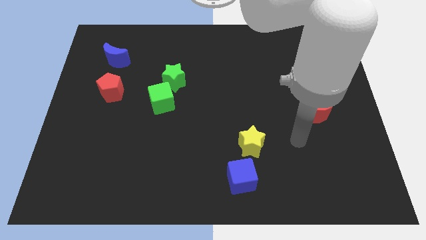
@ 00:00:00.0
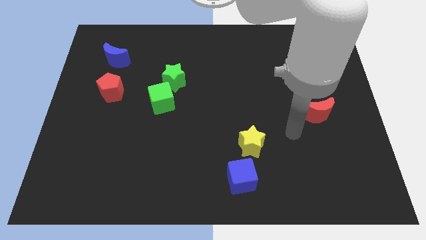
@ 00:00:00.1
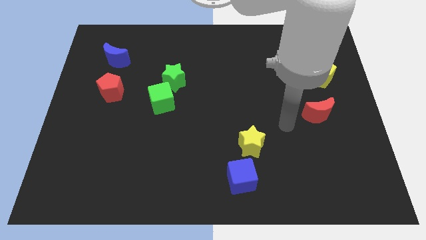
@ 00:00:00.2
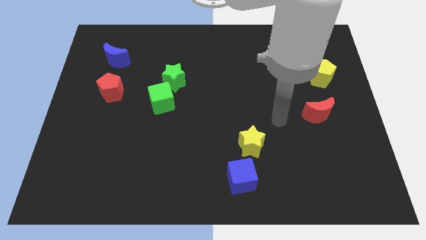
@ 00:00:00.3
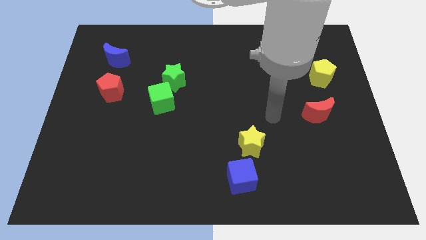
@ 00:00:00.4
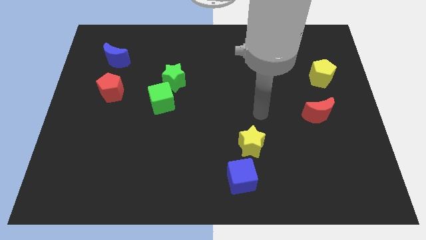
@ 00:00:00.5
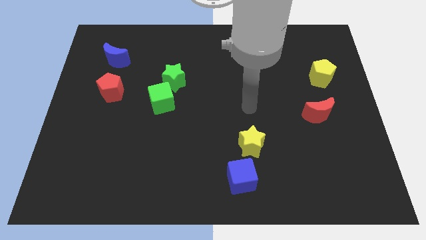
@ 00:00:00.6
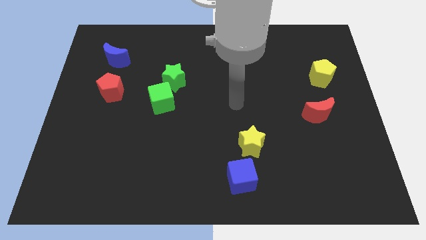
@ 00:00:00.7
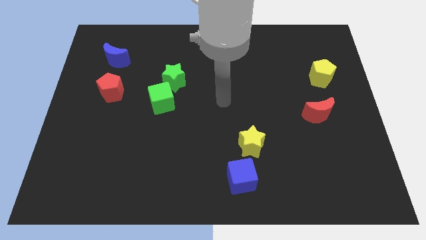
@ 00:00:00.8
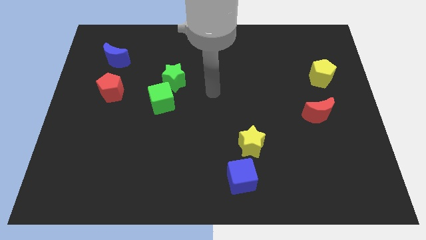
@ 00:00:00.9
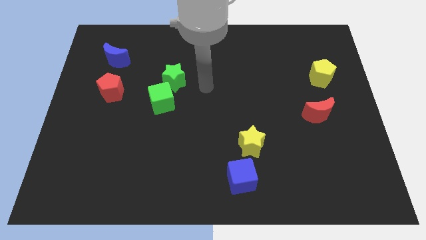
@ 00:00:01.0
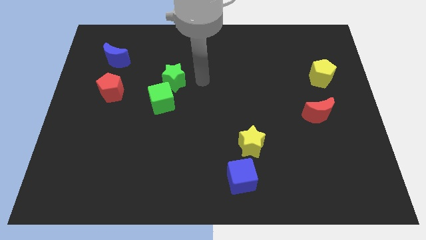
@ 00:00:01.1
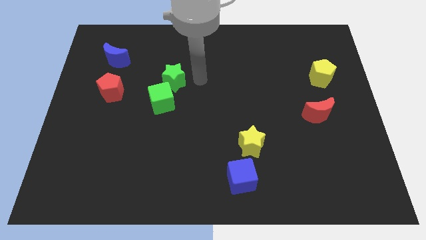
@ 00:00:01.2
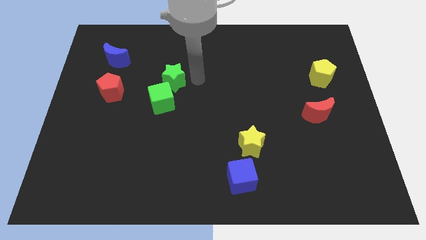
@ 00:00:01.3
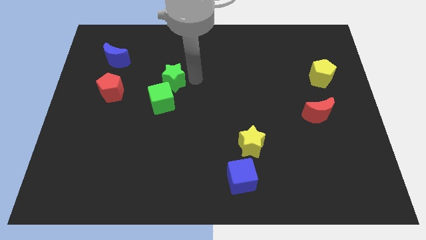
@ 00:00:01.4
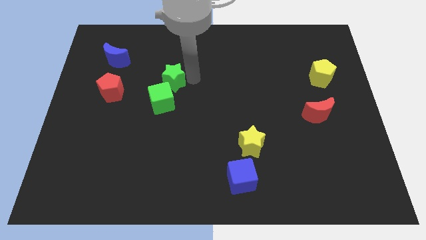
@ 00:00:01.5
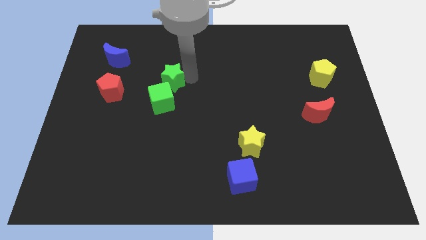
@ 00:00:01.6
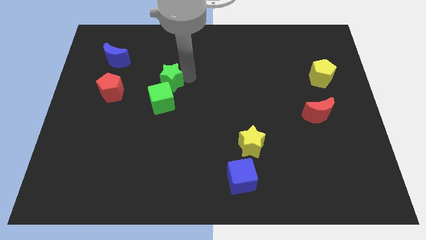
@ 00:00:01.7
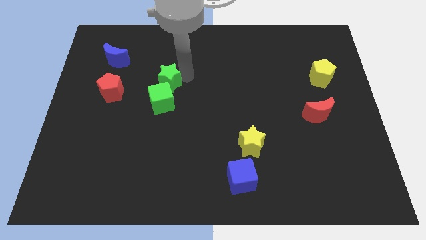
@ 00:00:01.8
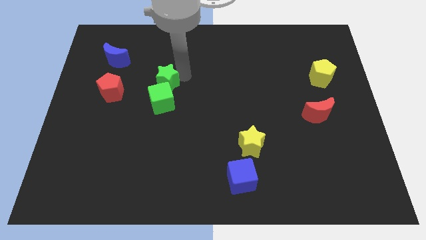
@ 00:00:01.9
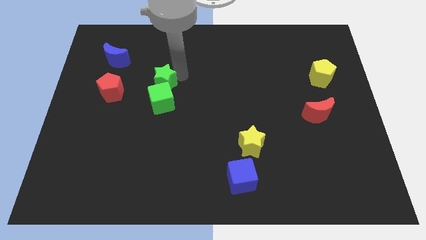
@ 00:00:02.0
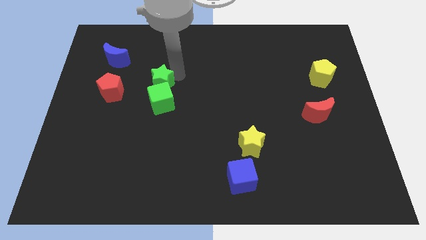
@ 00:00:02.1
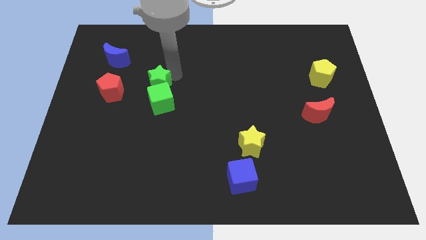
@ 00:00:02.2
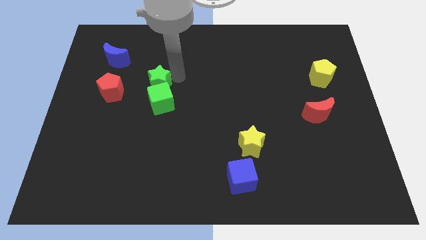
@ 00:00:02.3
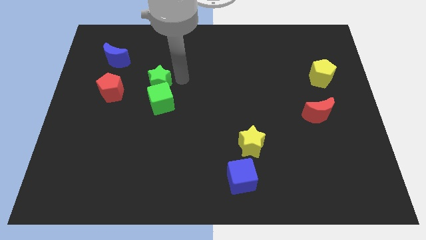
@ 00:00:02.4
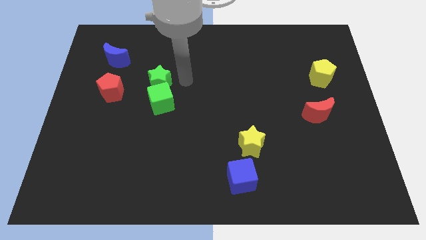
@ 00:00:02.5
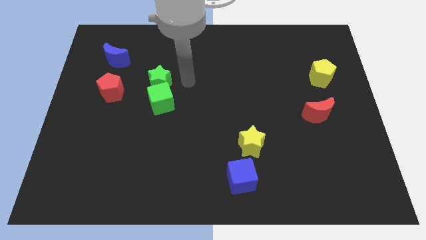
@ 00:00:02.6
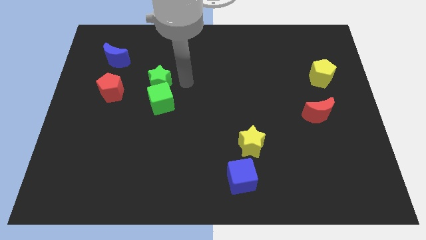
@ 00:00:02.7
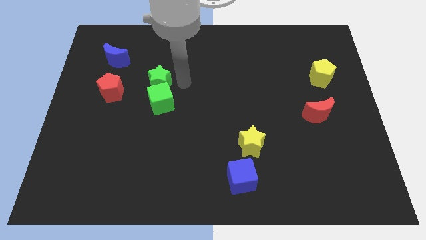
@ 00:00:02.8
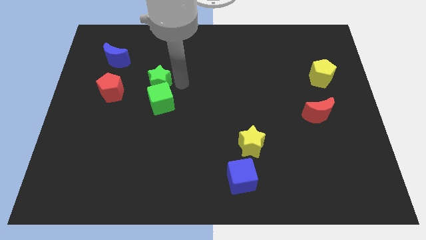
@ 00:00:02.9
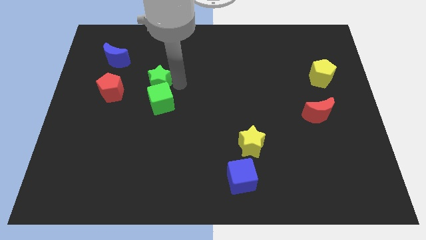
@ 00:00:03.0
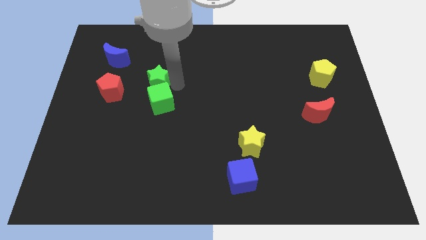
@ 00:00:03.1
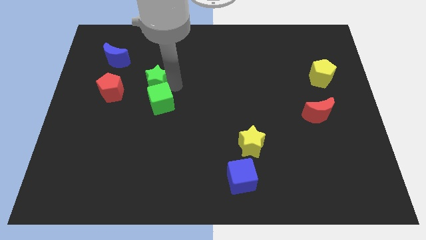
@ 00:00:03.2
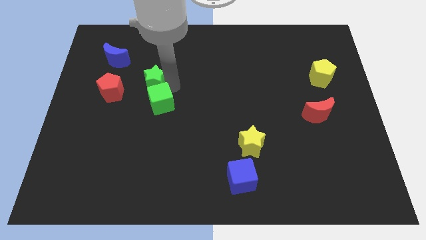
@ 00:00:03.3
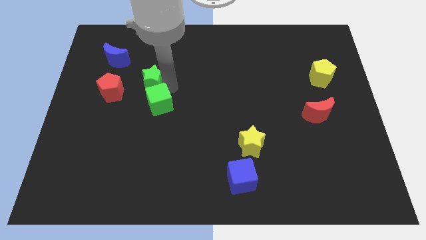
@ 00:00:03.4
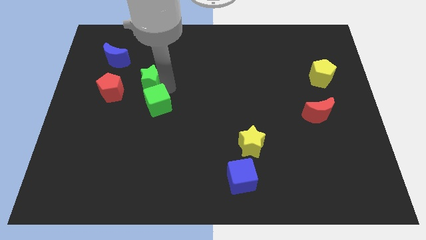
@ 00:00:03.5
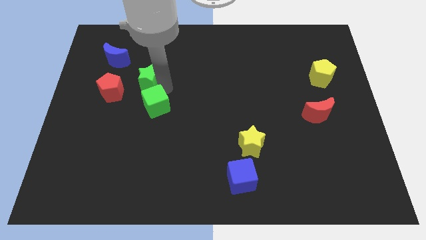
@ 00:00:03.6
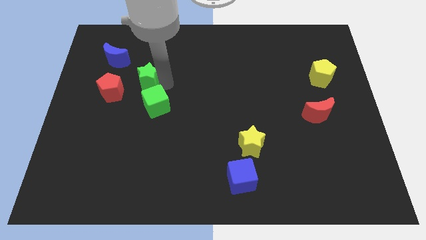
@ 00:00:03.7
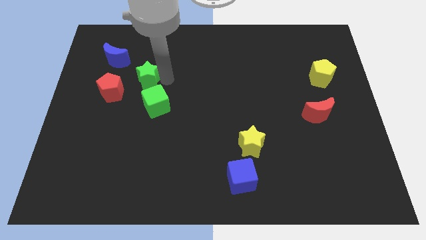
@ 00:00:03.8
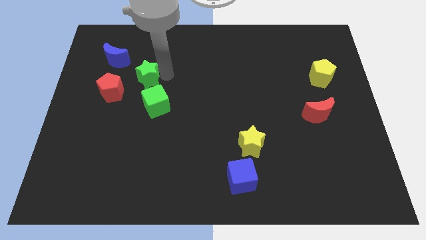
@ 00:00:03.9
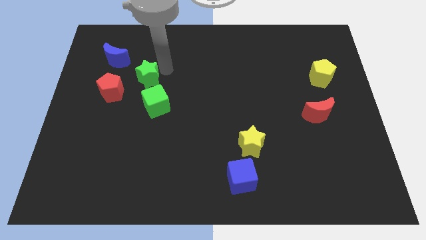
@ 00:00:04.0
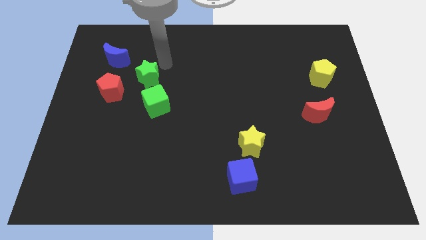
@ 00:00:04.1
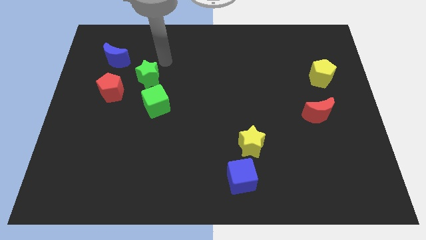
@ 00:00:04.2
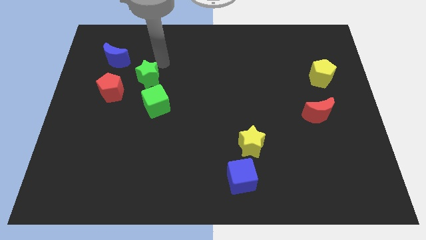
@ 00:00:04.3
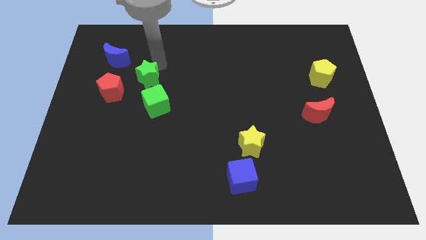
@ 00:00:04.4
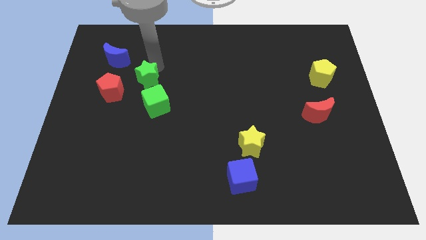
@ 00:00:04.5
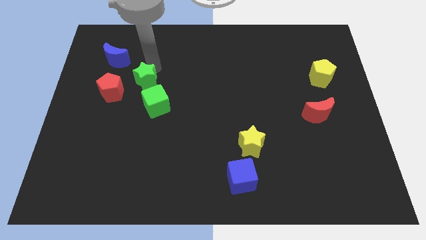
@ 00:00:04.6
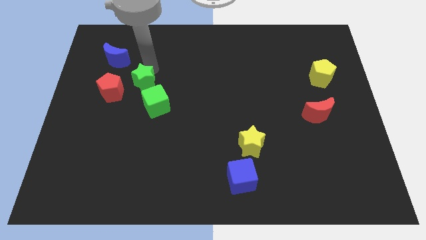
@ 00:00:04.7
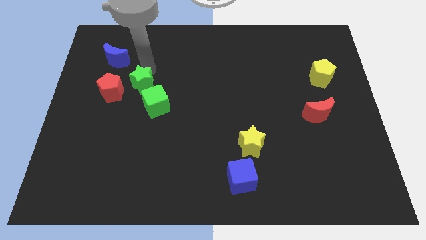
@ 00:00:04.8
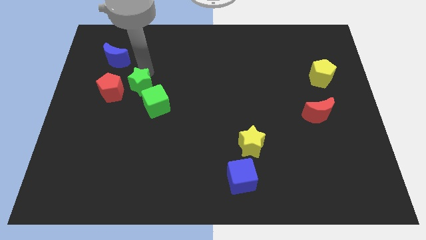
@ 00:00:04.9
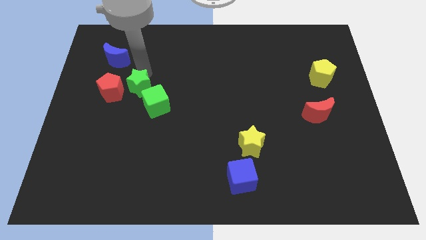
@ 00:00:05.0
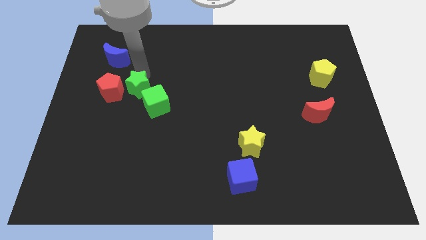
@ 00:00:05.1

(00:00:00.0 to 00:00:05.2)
slightly move the green star down and then to the left

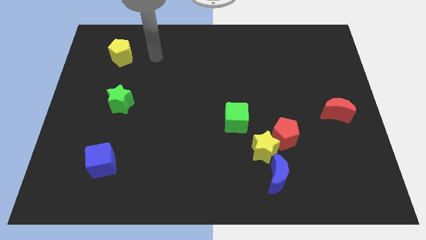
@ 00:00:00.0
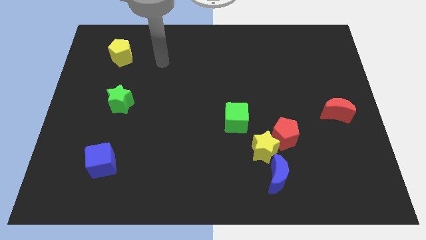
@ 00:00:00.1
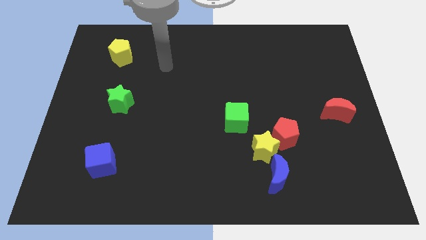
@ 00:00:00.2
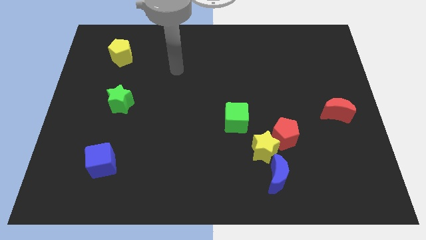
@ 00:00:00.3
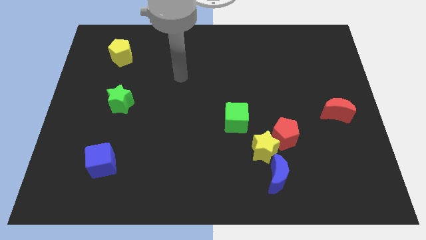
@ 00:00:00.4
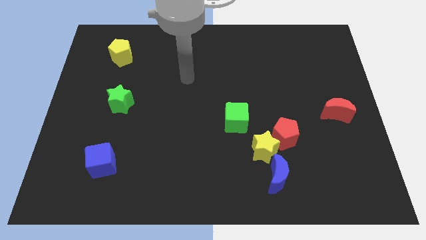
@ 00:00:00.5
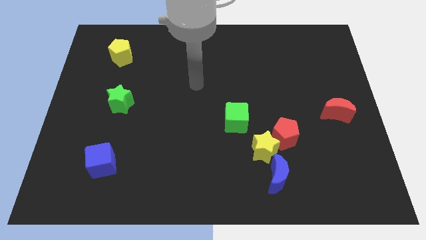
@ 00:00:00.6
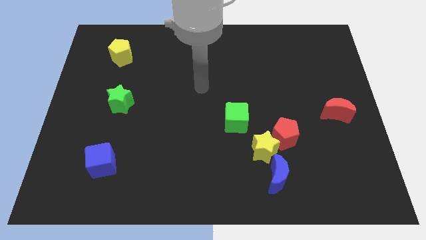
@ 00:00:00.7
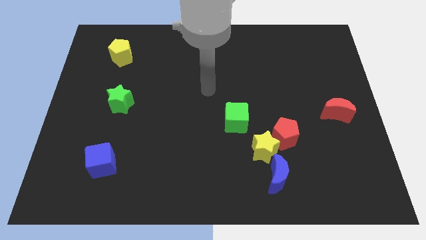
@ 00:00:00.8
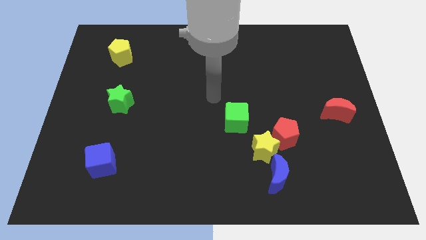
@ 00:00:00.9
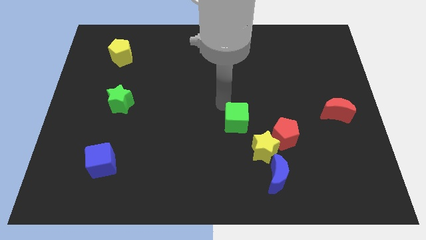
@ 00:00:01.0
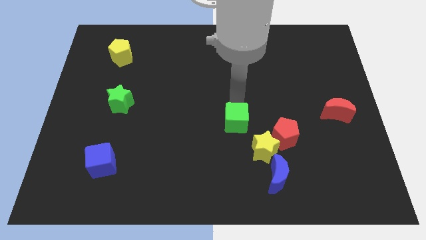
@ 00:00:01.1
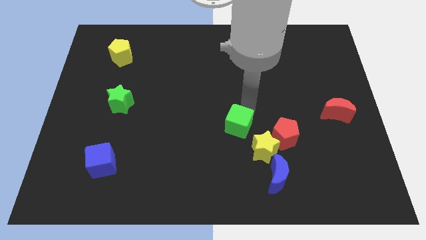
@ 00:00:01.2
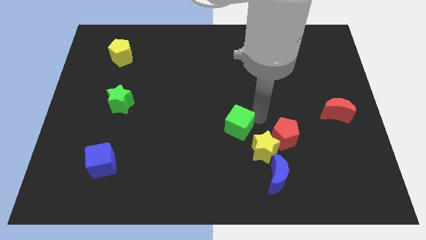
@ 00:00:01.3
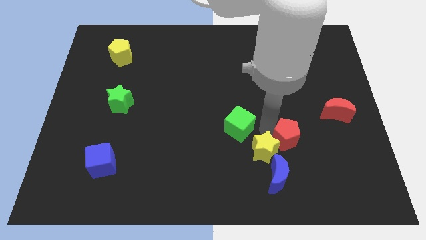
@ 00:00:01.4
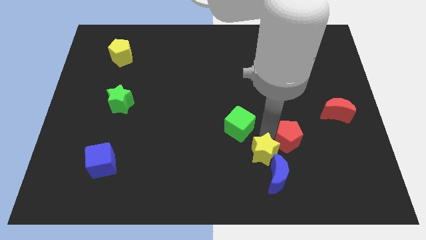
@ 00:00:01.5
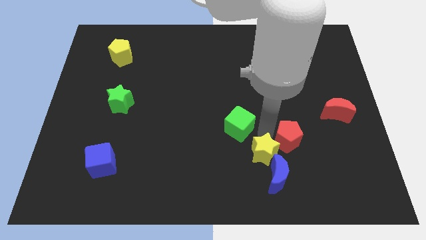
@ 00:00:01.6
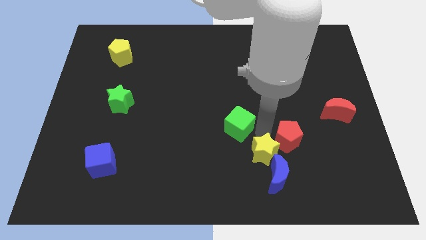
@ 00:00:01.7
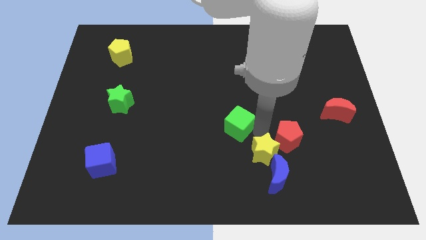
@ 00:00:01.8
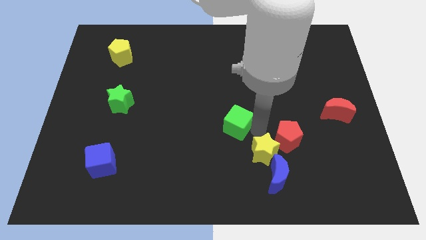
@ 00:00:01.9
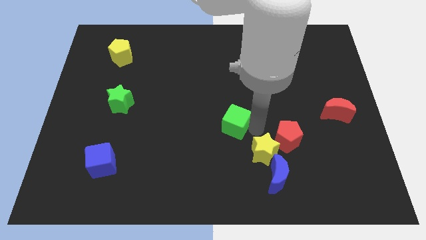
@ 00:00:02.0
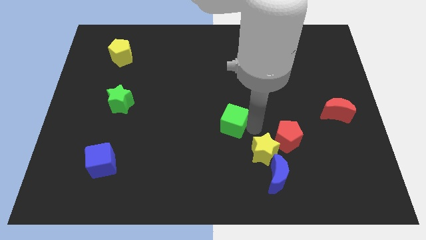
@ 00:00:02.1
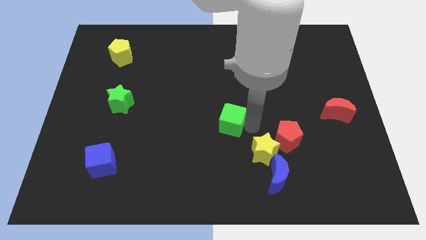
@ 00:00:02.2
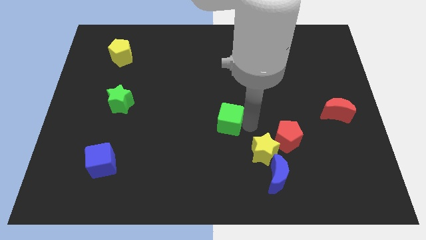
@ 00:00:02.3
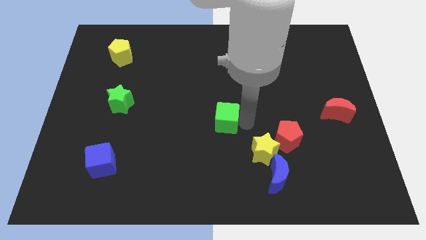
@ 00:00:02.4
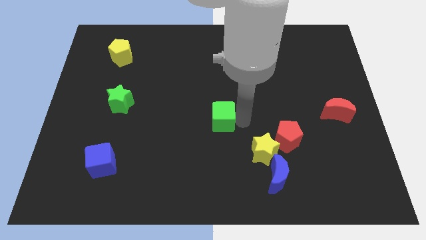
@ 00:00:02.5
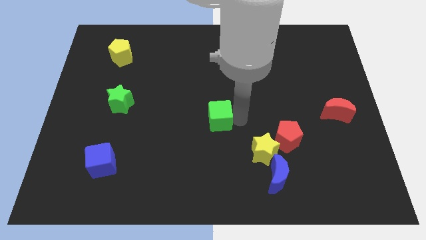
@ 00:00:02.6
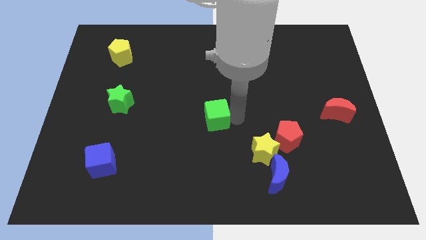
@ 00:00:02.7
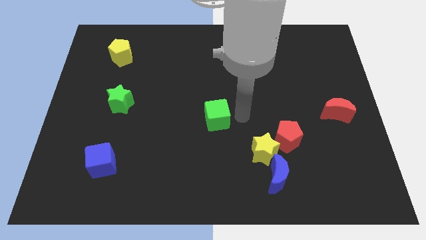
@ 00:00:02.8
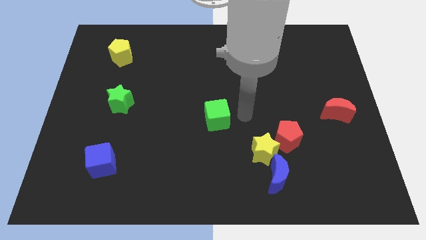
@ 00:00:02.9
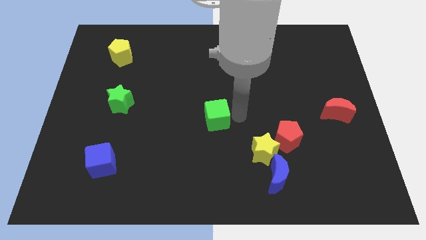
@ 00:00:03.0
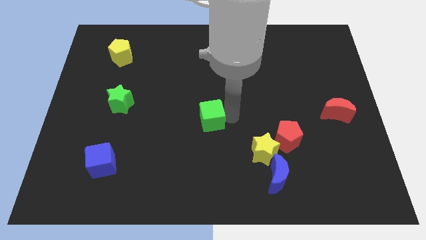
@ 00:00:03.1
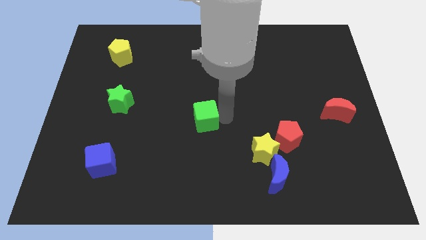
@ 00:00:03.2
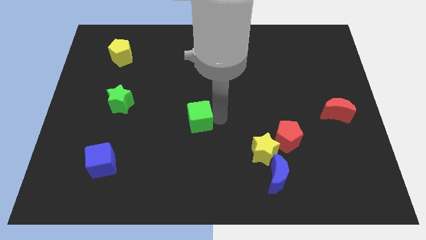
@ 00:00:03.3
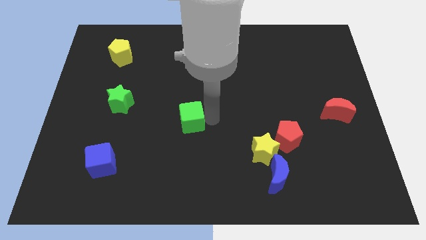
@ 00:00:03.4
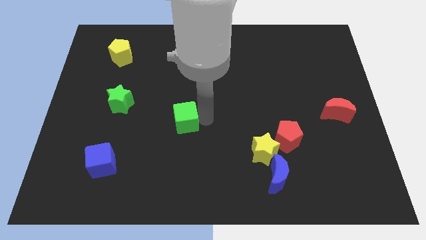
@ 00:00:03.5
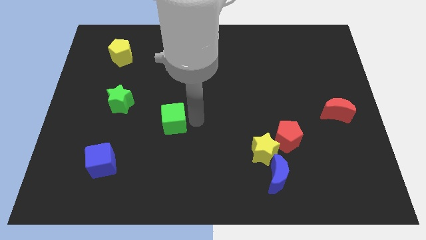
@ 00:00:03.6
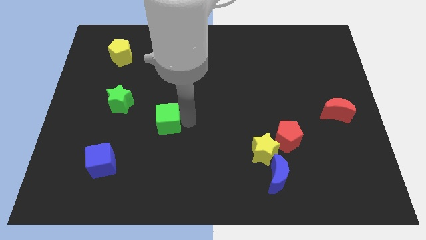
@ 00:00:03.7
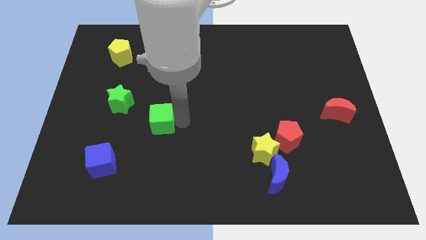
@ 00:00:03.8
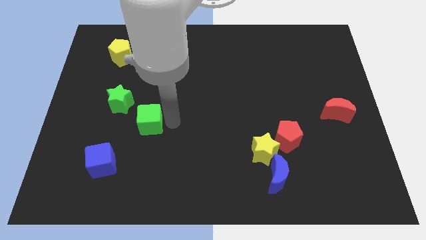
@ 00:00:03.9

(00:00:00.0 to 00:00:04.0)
push the green cube to the left
